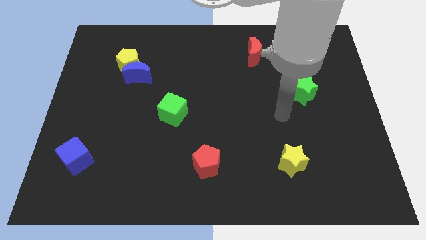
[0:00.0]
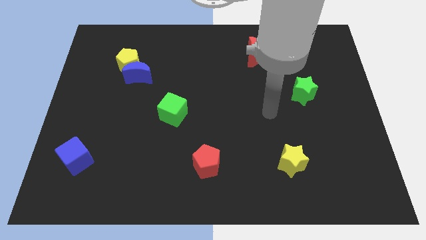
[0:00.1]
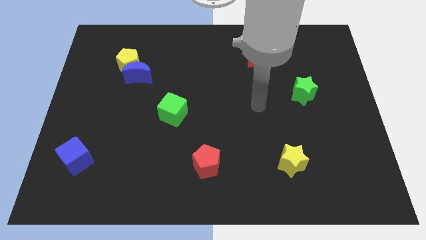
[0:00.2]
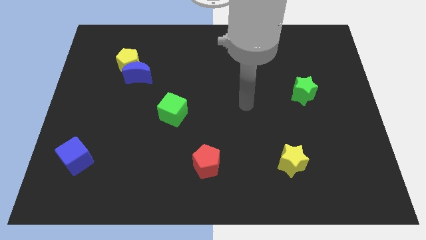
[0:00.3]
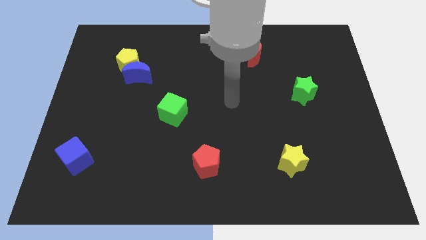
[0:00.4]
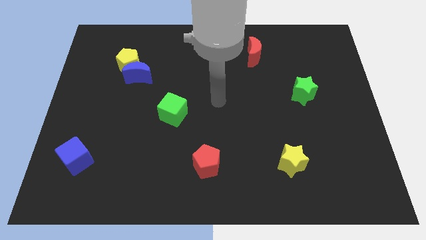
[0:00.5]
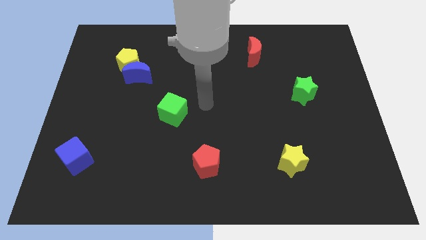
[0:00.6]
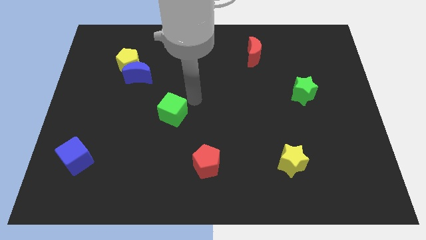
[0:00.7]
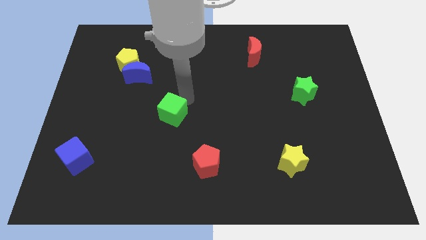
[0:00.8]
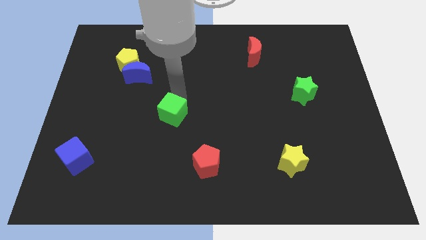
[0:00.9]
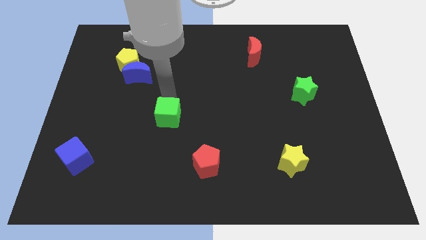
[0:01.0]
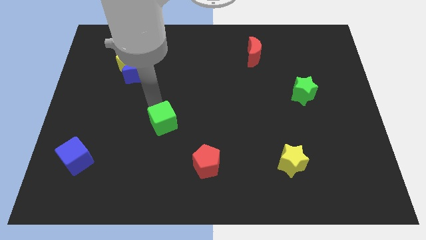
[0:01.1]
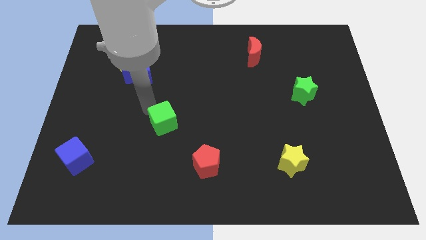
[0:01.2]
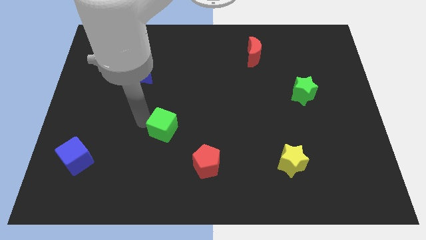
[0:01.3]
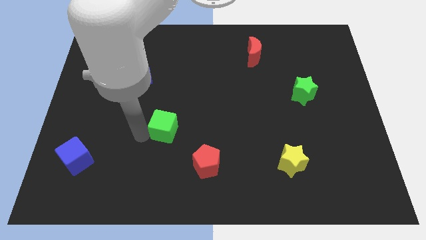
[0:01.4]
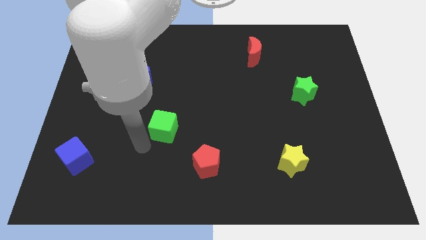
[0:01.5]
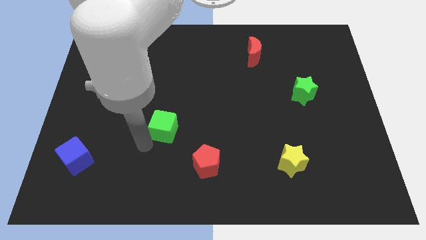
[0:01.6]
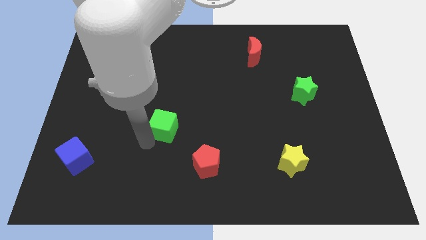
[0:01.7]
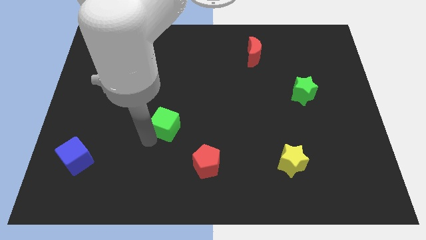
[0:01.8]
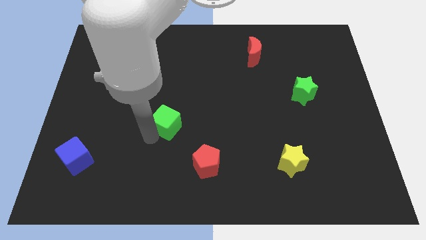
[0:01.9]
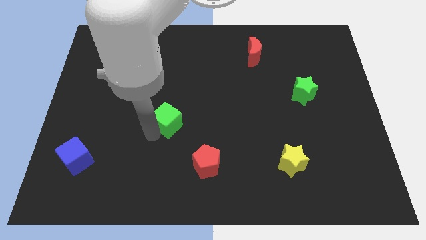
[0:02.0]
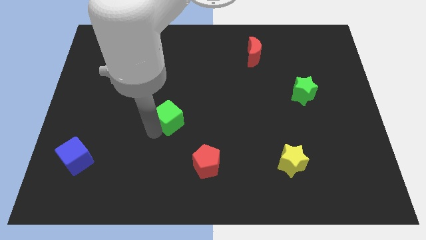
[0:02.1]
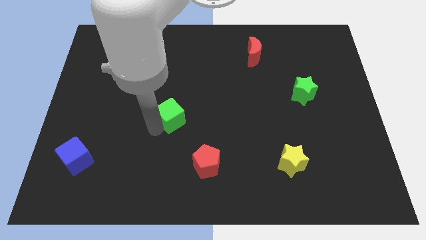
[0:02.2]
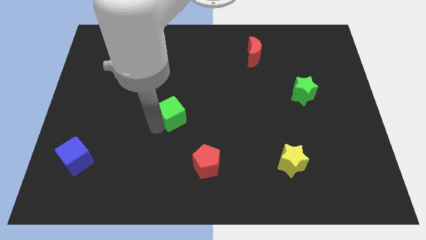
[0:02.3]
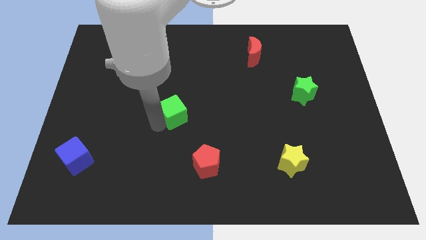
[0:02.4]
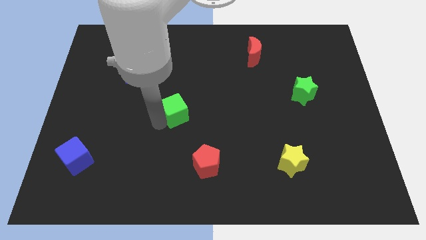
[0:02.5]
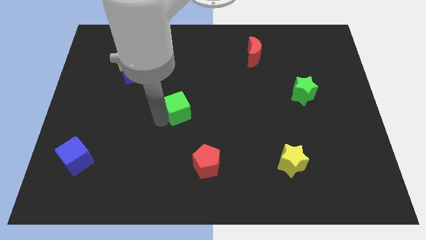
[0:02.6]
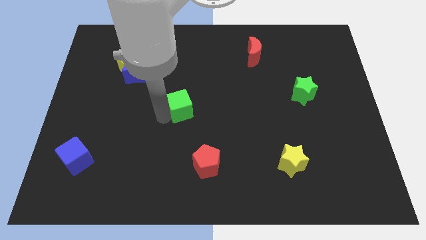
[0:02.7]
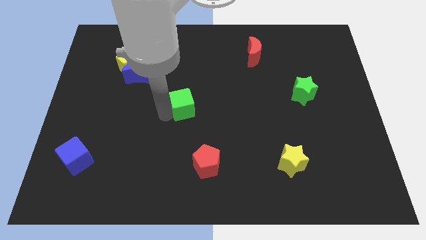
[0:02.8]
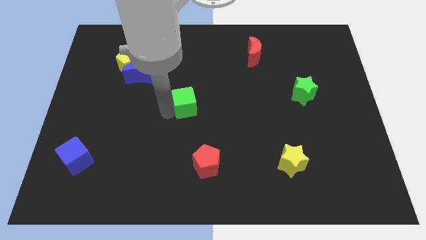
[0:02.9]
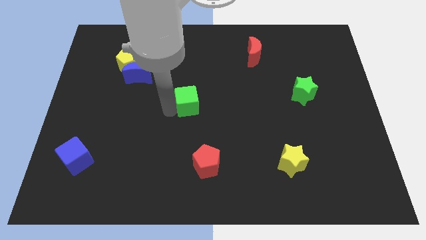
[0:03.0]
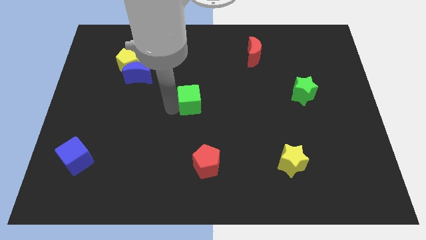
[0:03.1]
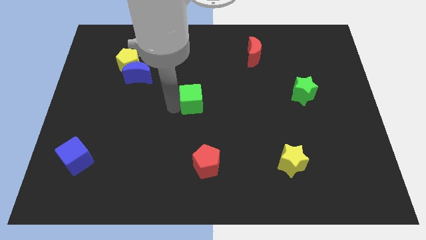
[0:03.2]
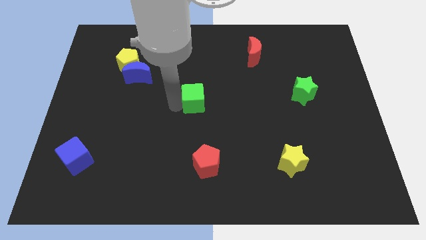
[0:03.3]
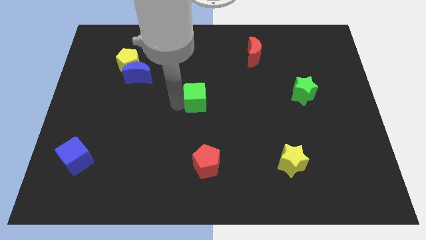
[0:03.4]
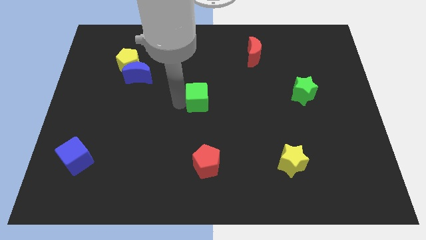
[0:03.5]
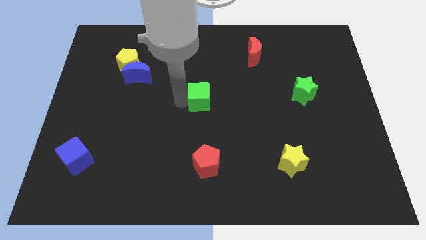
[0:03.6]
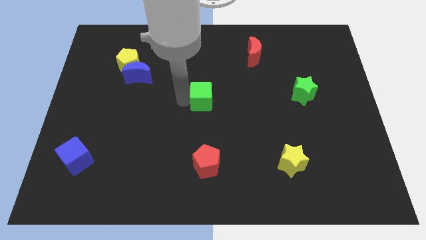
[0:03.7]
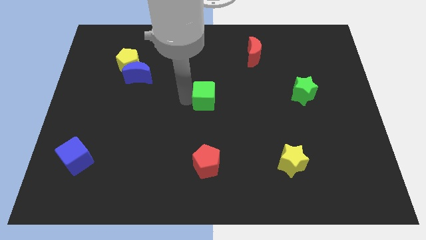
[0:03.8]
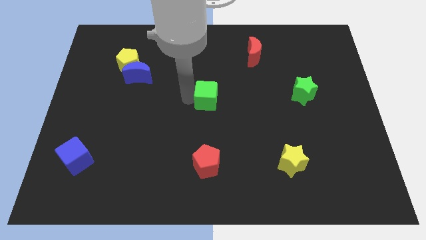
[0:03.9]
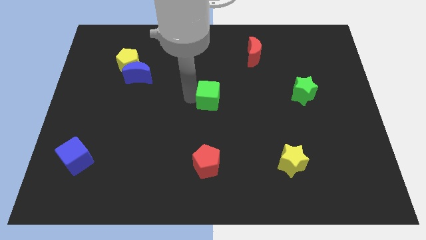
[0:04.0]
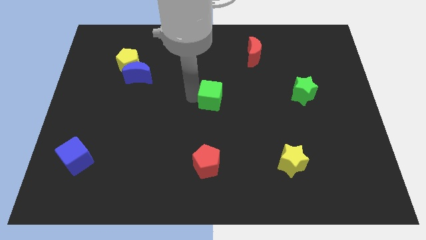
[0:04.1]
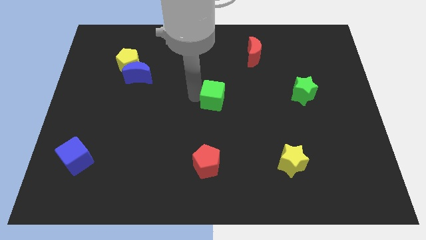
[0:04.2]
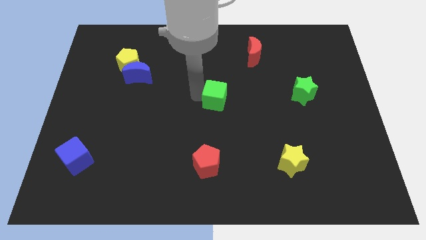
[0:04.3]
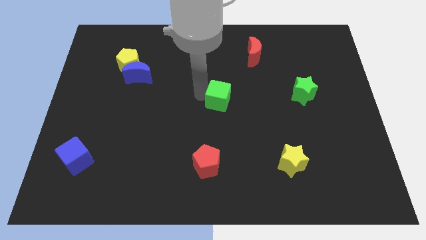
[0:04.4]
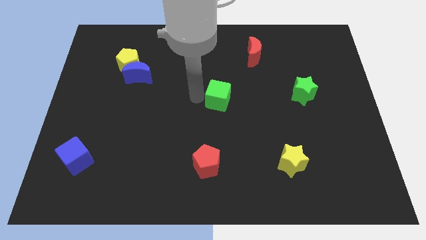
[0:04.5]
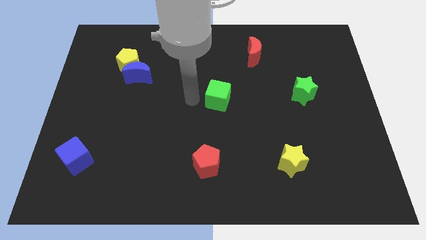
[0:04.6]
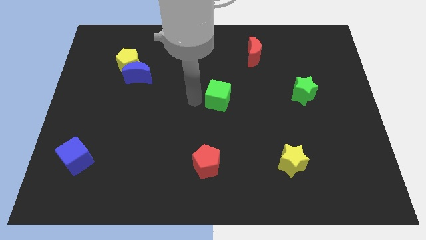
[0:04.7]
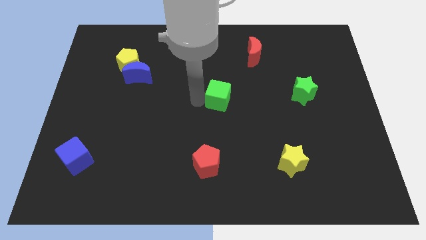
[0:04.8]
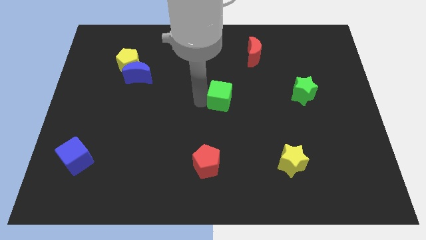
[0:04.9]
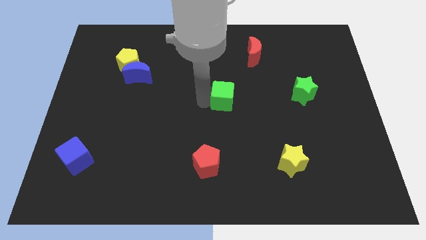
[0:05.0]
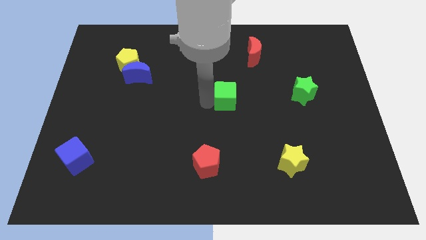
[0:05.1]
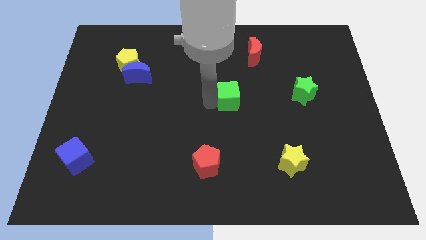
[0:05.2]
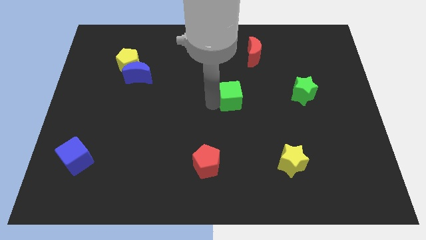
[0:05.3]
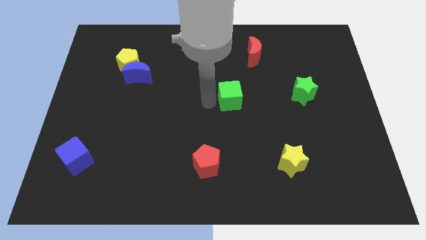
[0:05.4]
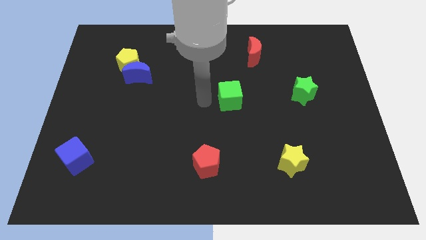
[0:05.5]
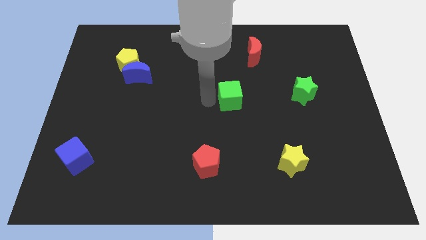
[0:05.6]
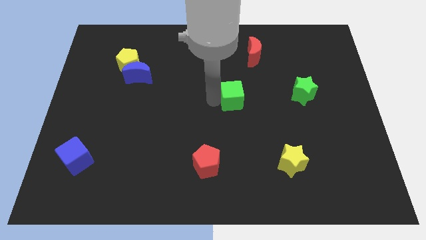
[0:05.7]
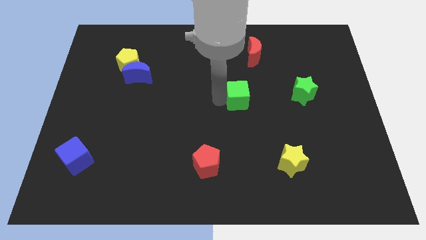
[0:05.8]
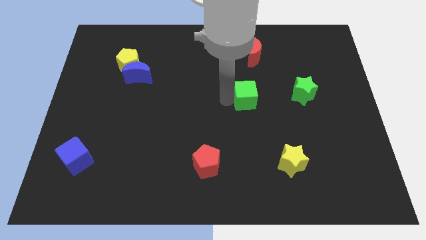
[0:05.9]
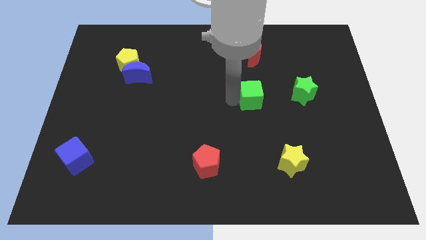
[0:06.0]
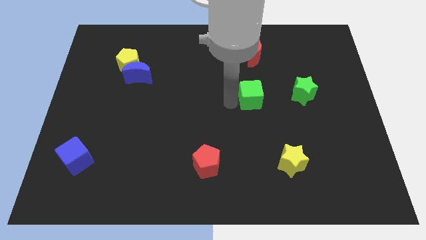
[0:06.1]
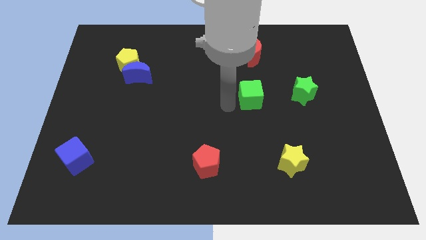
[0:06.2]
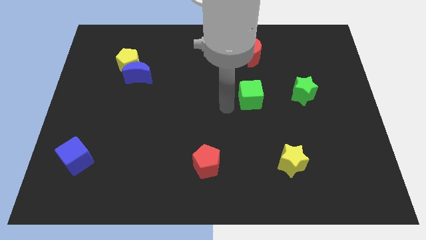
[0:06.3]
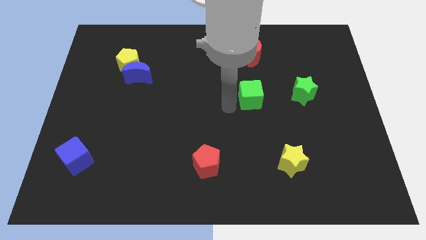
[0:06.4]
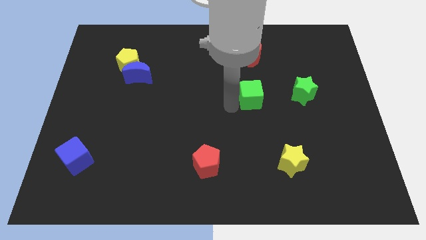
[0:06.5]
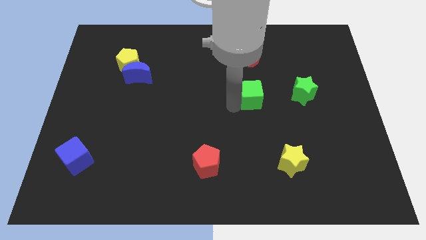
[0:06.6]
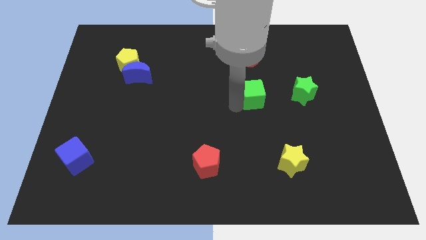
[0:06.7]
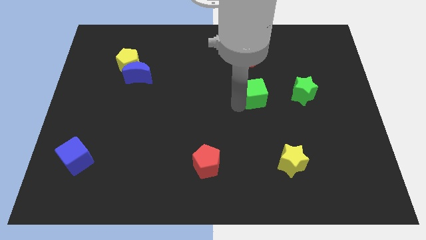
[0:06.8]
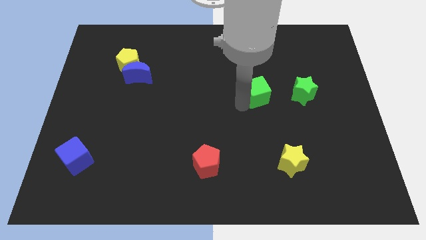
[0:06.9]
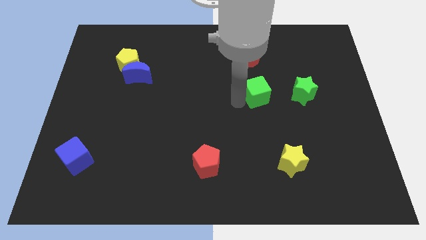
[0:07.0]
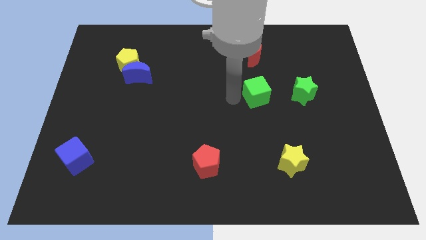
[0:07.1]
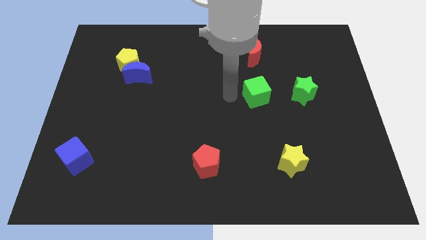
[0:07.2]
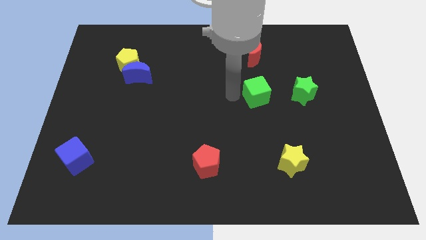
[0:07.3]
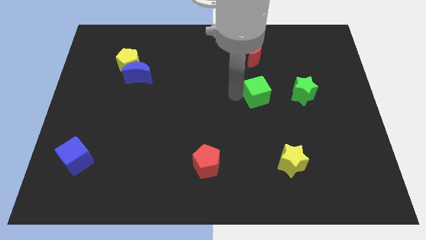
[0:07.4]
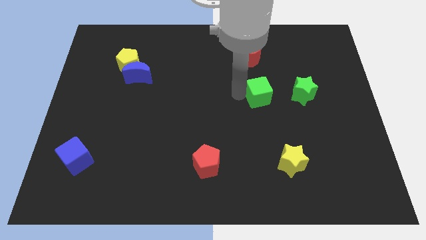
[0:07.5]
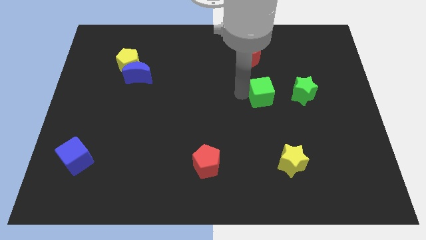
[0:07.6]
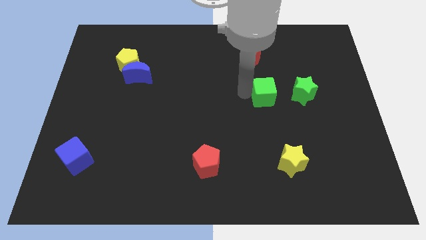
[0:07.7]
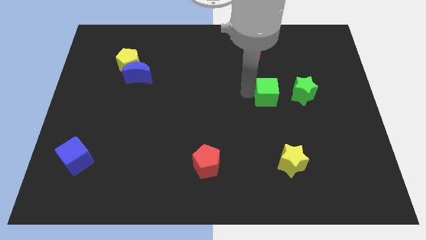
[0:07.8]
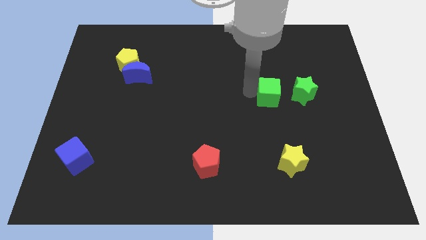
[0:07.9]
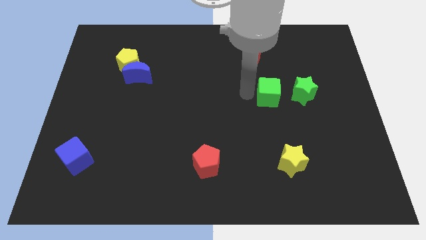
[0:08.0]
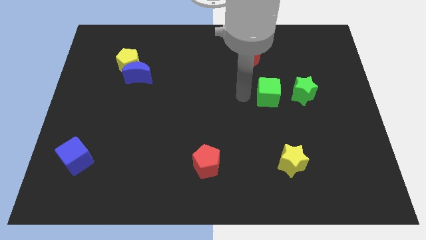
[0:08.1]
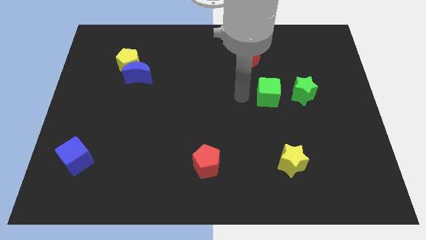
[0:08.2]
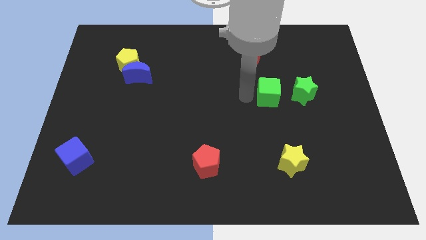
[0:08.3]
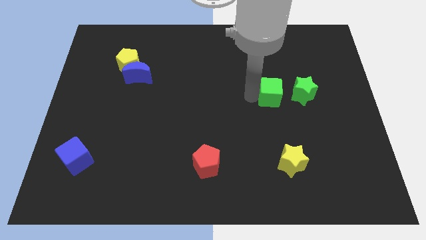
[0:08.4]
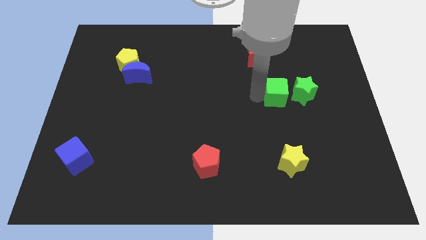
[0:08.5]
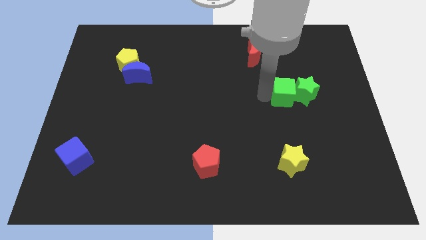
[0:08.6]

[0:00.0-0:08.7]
slide the green cube to the green star
